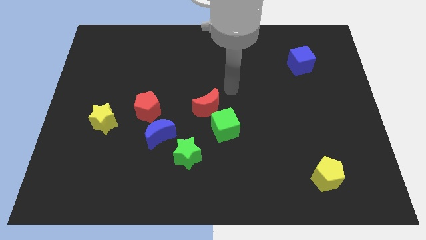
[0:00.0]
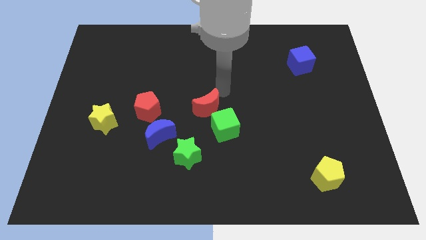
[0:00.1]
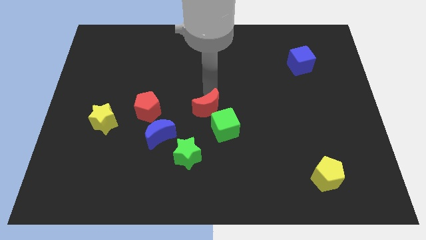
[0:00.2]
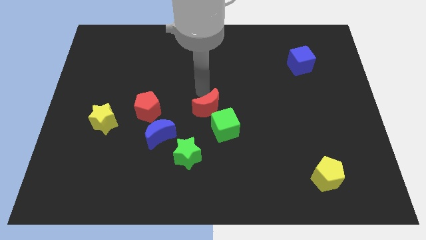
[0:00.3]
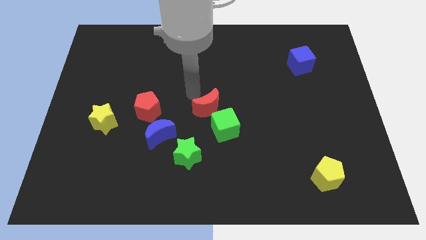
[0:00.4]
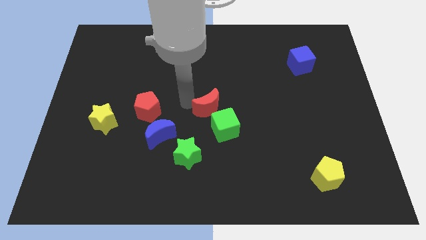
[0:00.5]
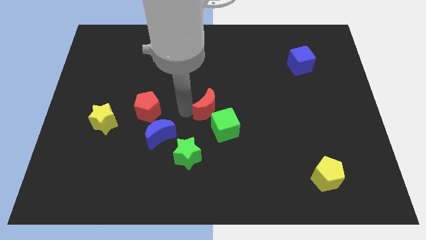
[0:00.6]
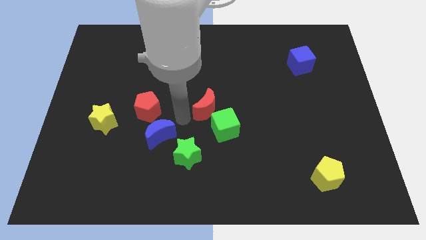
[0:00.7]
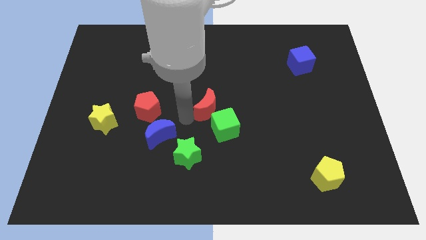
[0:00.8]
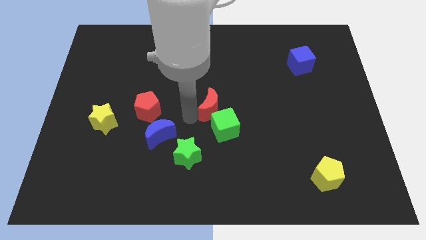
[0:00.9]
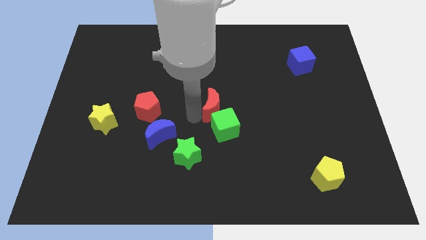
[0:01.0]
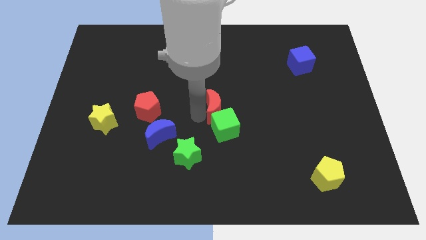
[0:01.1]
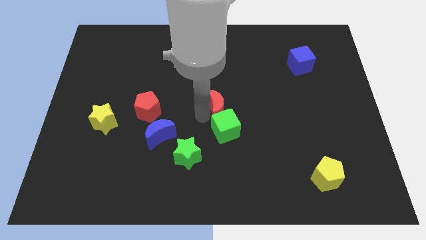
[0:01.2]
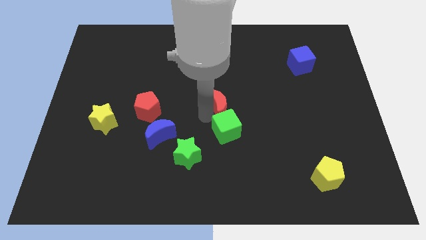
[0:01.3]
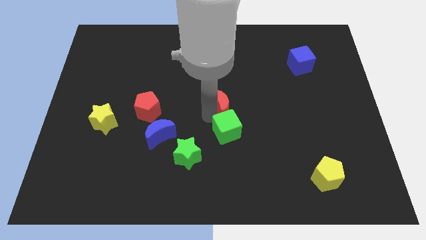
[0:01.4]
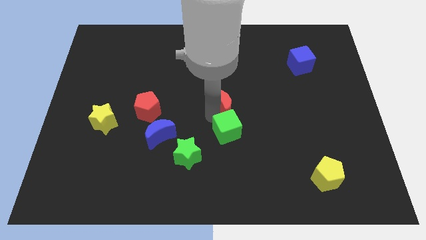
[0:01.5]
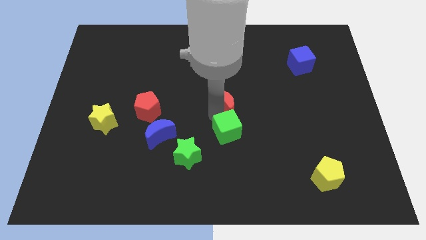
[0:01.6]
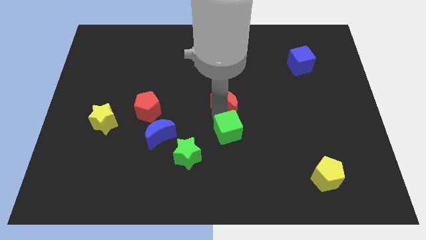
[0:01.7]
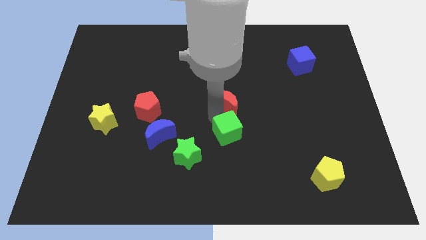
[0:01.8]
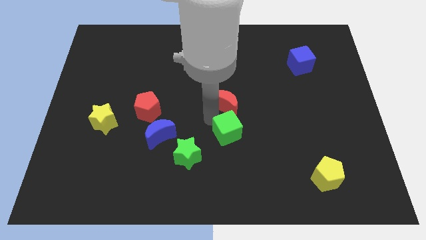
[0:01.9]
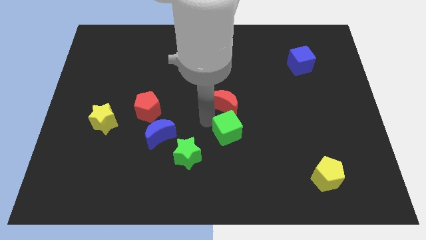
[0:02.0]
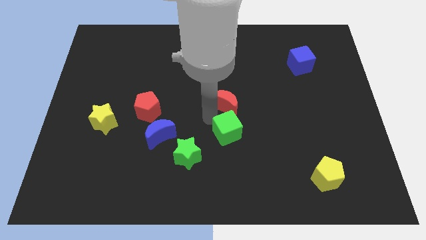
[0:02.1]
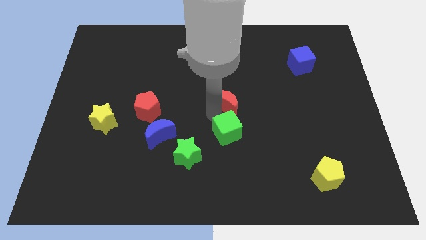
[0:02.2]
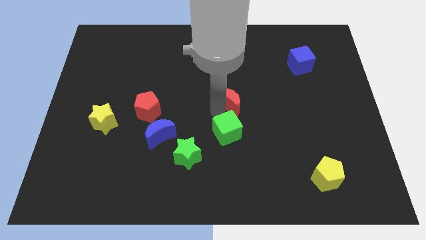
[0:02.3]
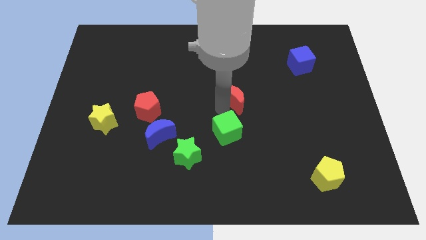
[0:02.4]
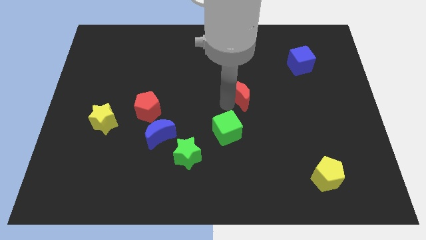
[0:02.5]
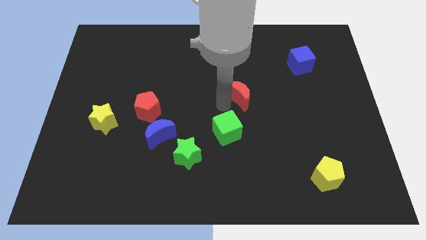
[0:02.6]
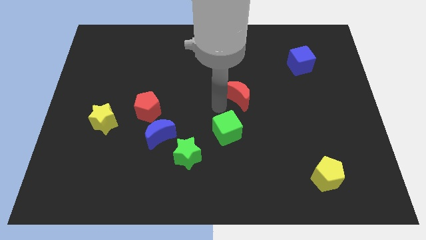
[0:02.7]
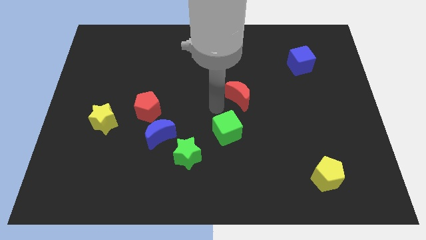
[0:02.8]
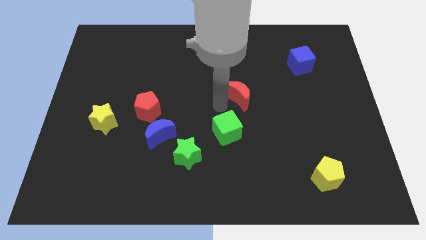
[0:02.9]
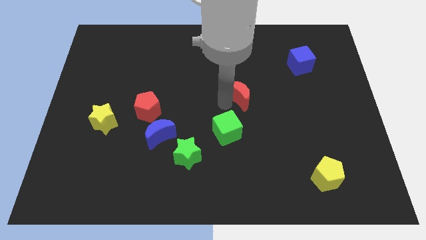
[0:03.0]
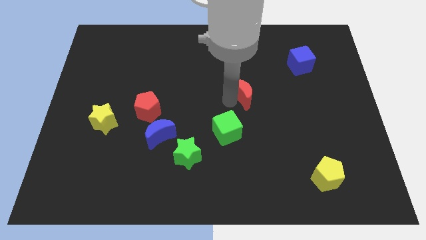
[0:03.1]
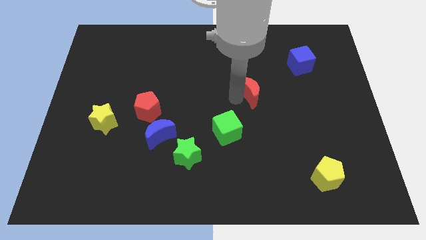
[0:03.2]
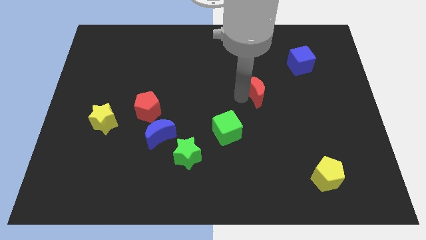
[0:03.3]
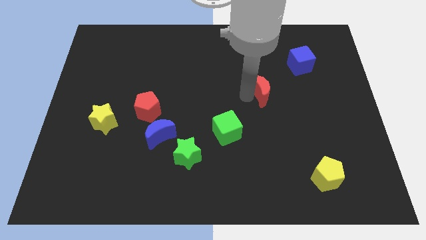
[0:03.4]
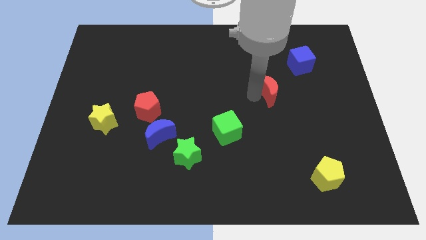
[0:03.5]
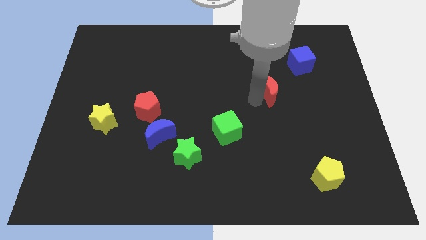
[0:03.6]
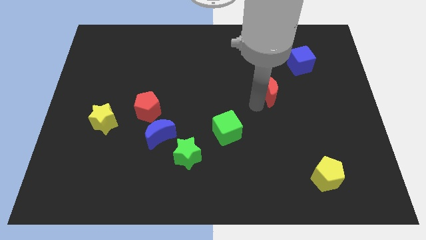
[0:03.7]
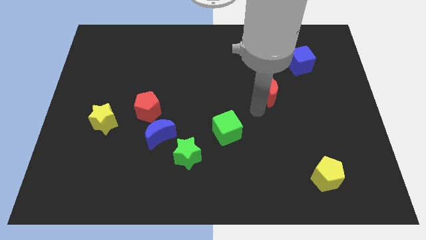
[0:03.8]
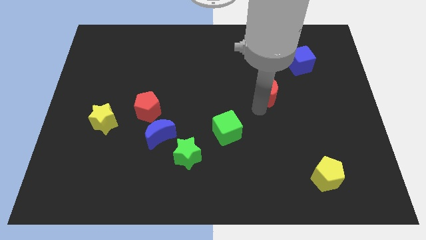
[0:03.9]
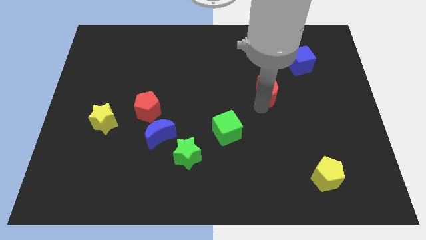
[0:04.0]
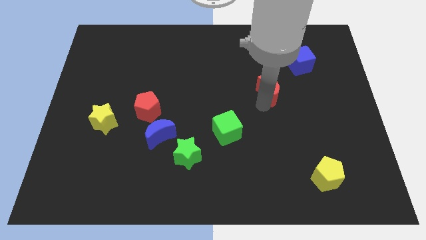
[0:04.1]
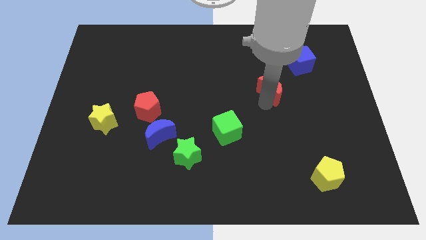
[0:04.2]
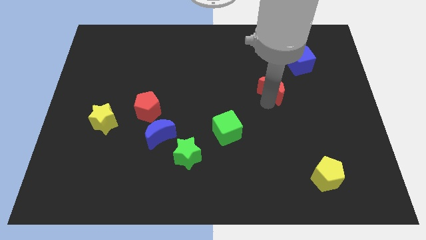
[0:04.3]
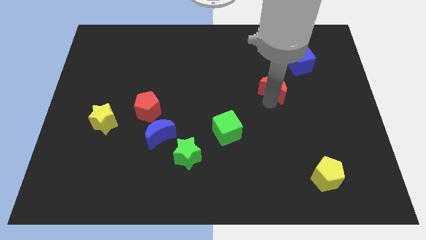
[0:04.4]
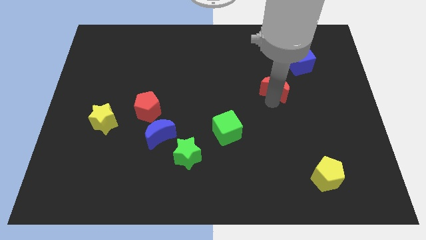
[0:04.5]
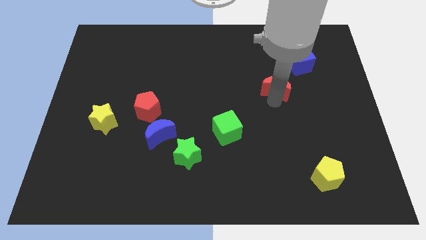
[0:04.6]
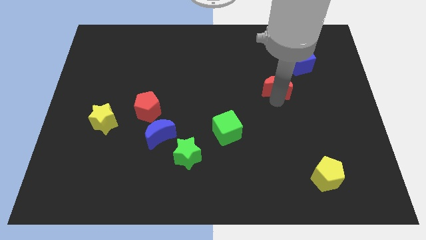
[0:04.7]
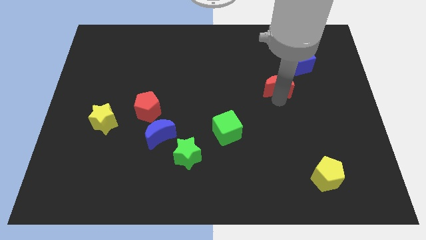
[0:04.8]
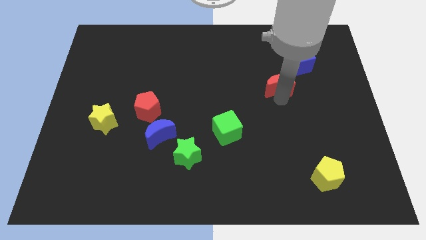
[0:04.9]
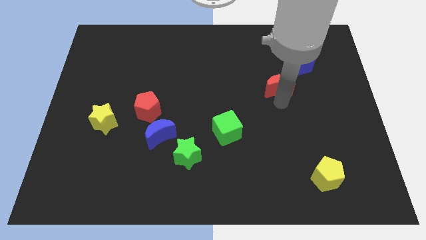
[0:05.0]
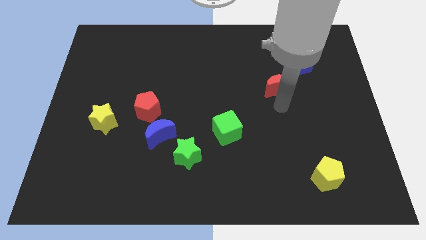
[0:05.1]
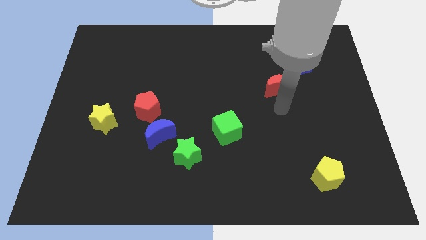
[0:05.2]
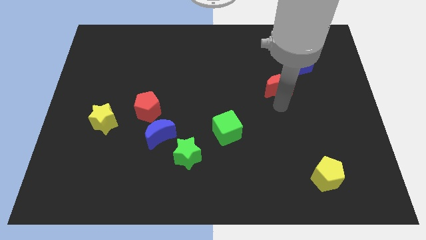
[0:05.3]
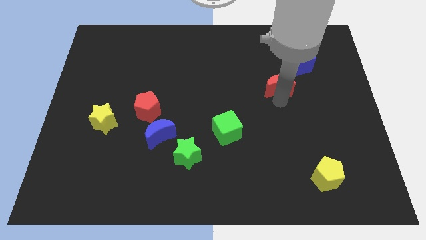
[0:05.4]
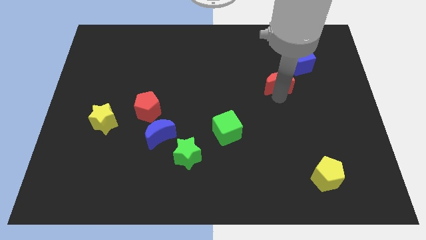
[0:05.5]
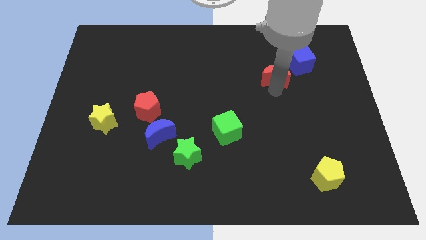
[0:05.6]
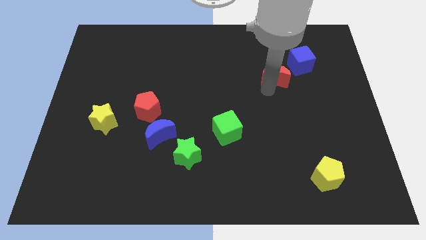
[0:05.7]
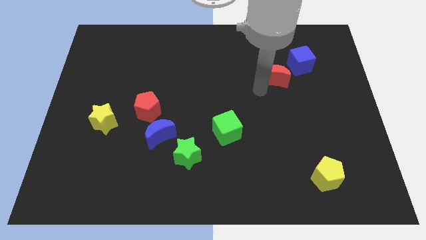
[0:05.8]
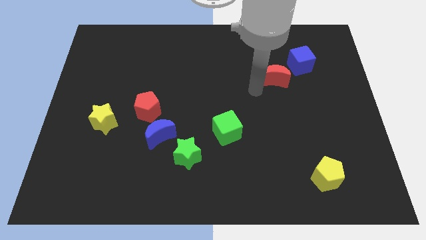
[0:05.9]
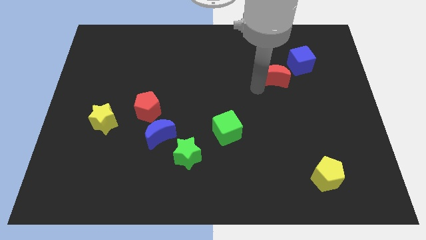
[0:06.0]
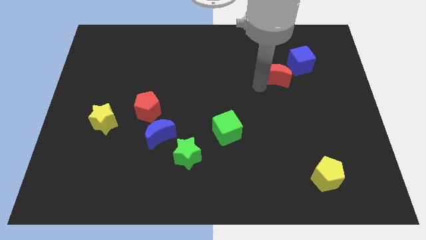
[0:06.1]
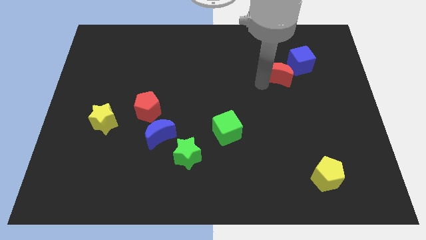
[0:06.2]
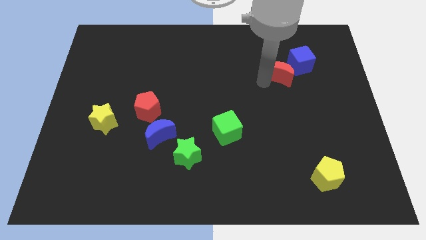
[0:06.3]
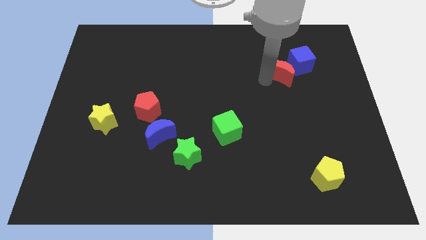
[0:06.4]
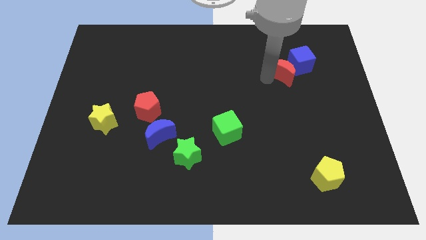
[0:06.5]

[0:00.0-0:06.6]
put the red moon to the blue cube

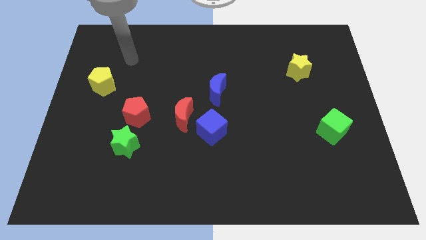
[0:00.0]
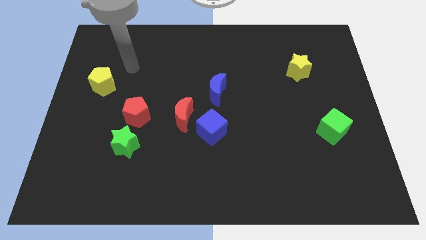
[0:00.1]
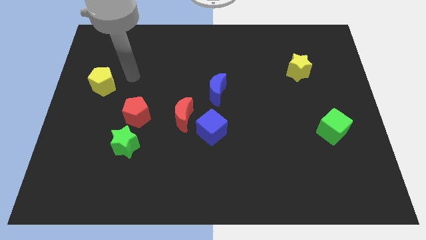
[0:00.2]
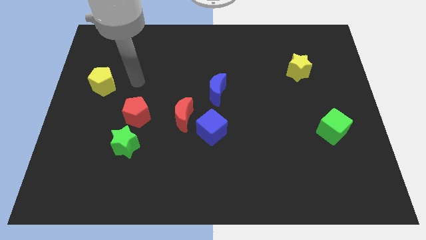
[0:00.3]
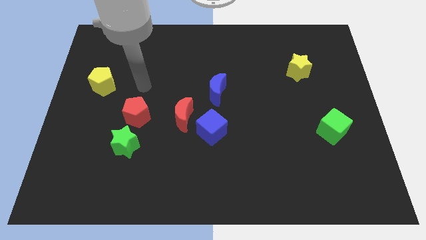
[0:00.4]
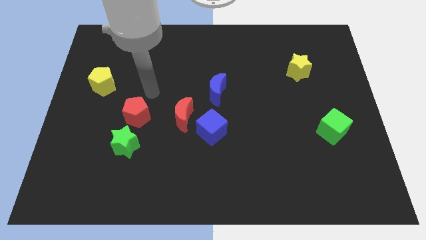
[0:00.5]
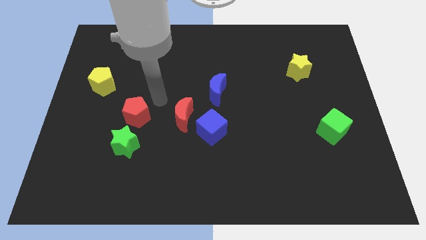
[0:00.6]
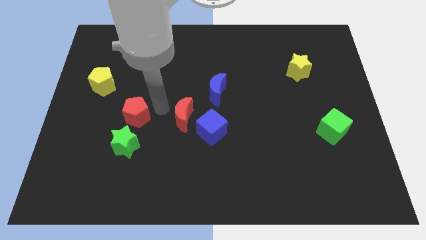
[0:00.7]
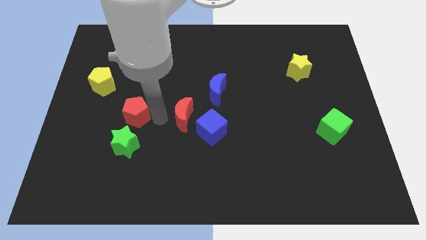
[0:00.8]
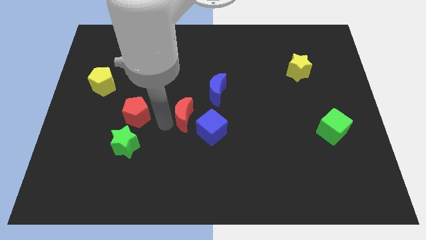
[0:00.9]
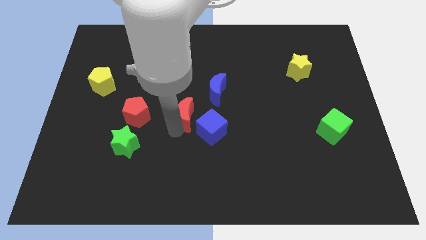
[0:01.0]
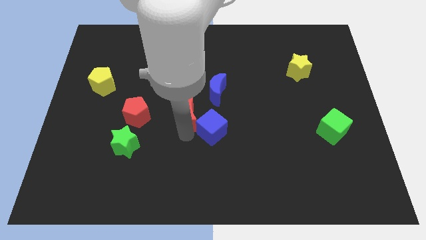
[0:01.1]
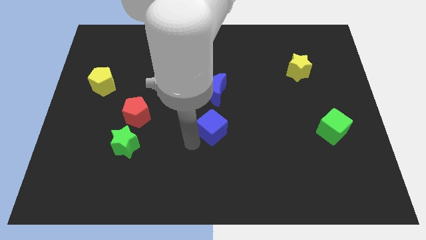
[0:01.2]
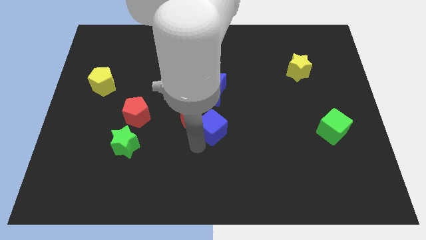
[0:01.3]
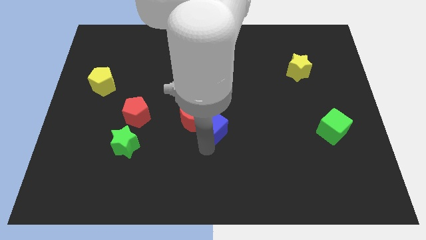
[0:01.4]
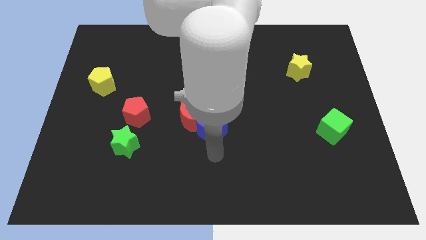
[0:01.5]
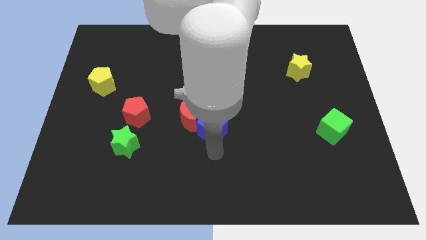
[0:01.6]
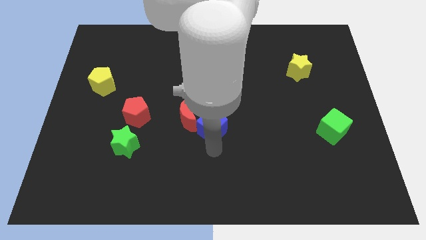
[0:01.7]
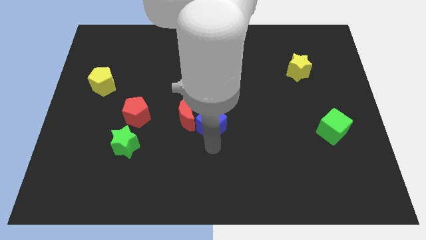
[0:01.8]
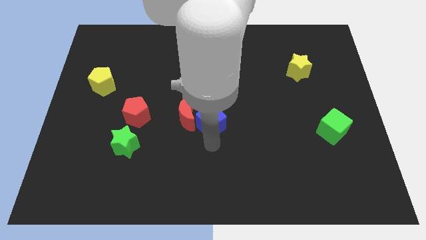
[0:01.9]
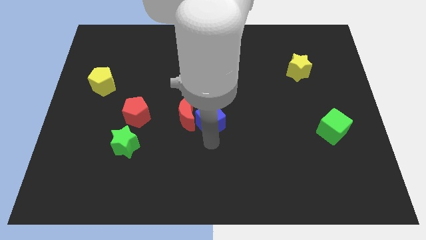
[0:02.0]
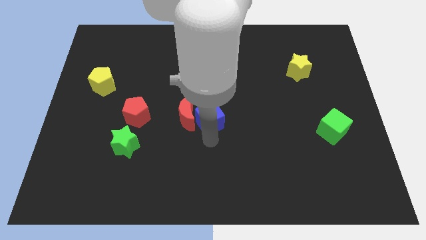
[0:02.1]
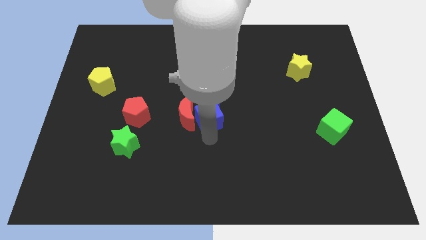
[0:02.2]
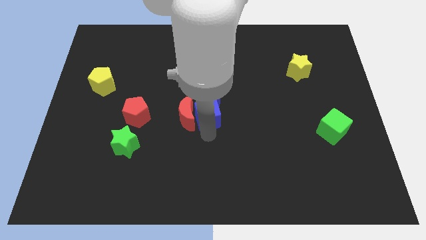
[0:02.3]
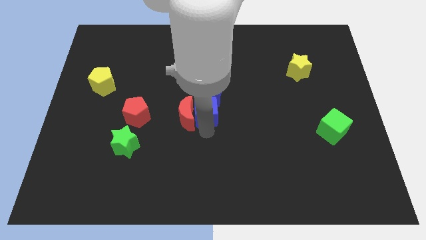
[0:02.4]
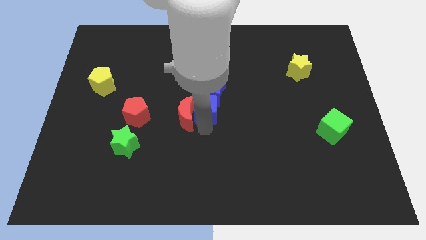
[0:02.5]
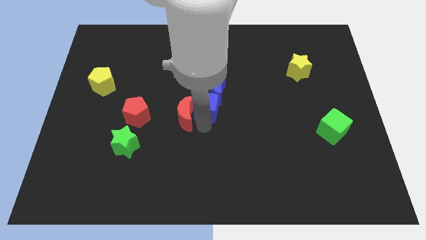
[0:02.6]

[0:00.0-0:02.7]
slide the blue cube next to the blue moon
